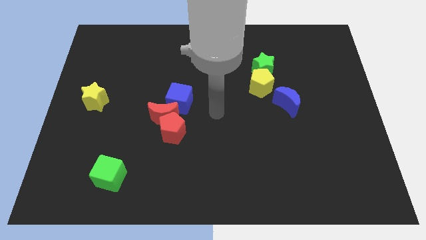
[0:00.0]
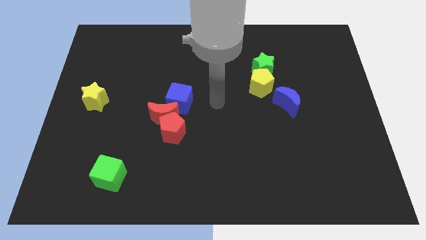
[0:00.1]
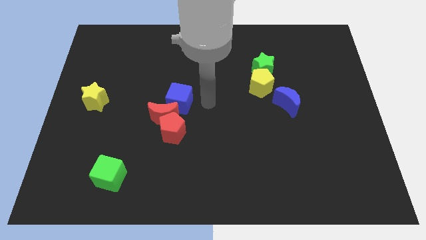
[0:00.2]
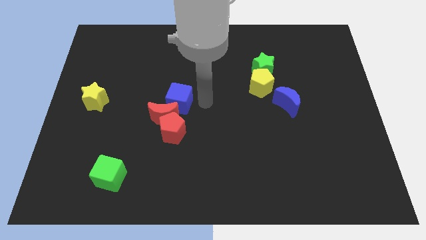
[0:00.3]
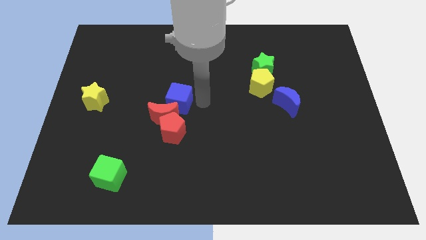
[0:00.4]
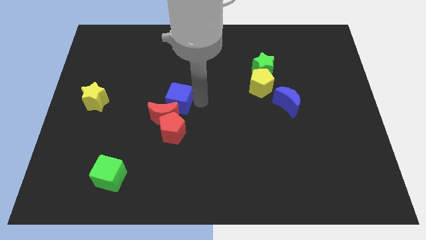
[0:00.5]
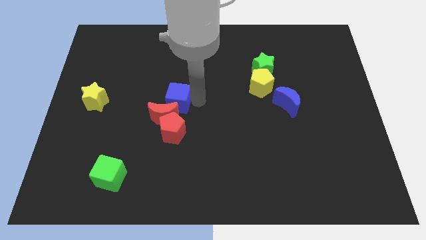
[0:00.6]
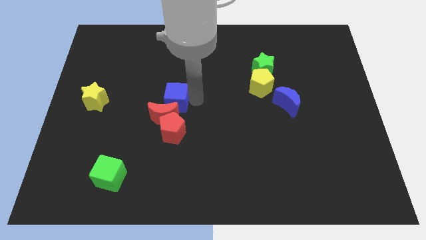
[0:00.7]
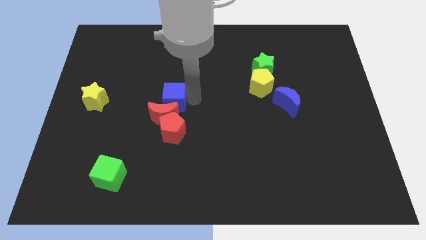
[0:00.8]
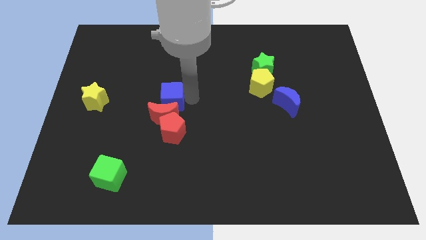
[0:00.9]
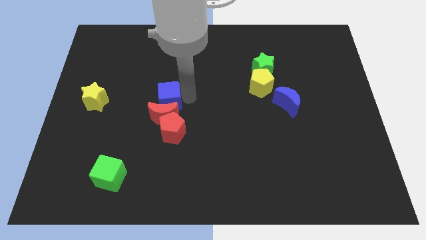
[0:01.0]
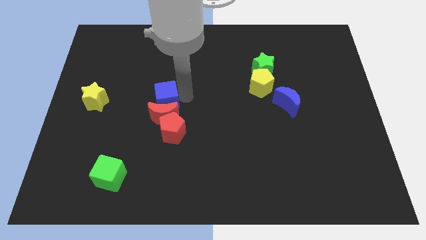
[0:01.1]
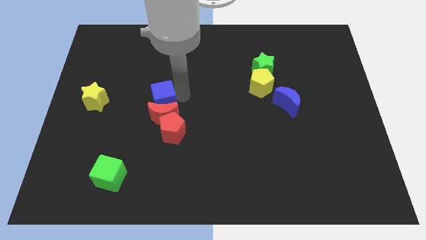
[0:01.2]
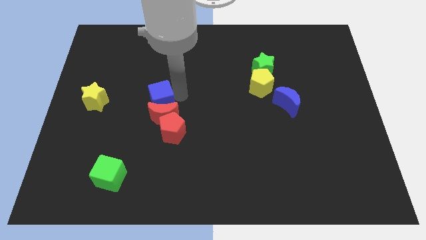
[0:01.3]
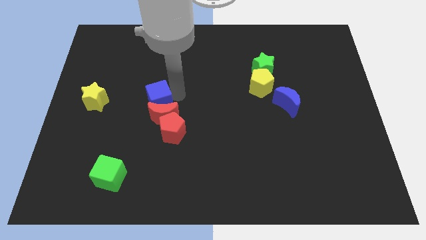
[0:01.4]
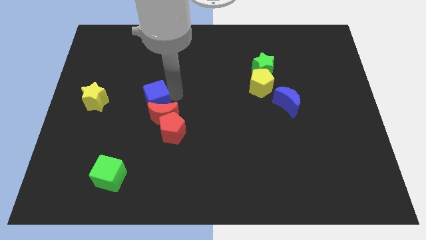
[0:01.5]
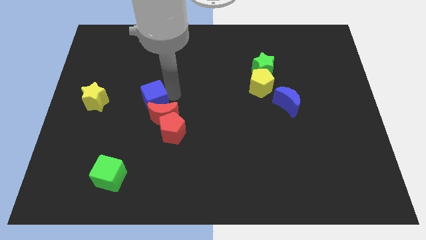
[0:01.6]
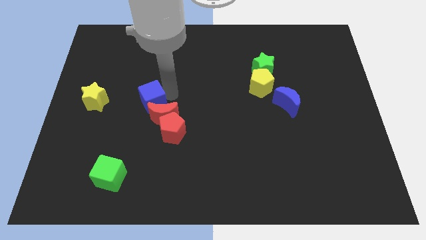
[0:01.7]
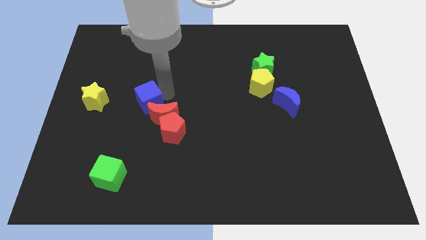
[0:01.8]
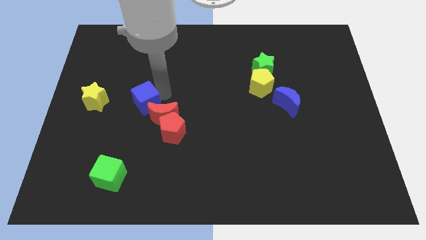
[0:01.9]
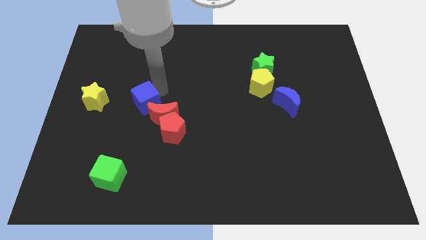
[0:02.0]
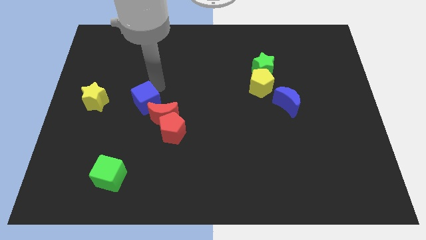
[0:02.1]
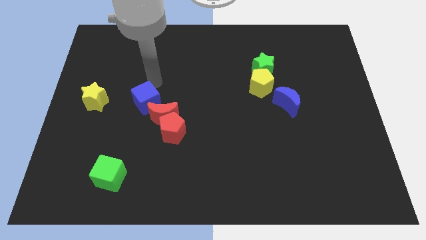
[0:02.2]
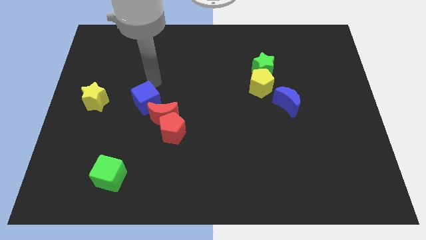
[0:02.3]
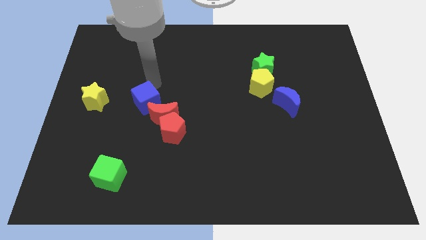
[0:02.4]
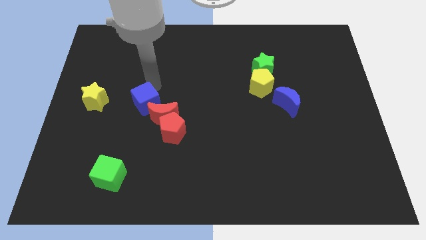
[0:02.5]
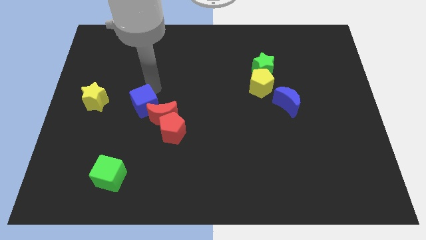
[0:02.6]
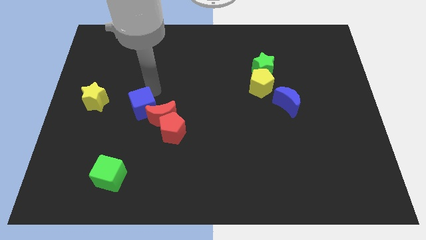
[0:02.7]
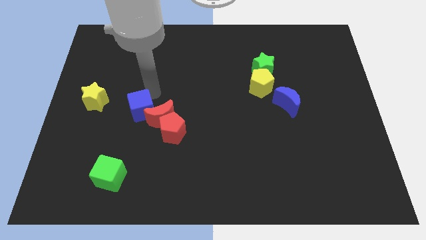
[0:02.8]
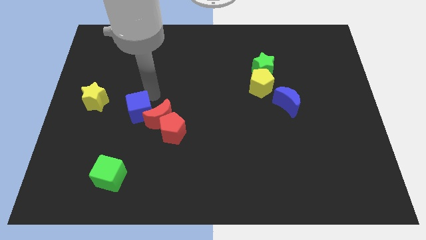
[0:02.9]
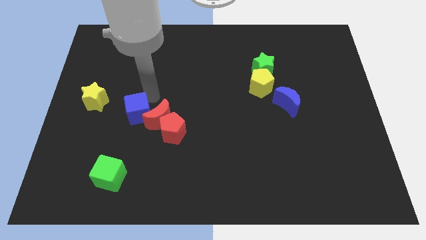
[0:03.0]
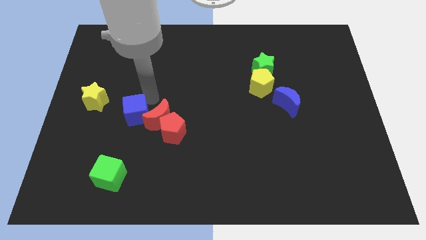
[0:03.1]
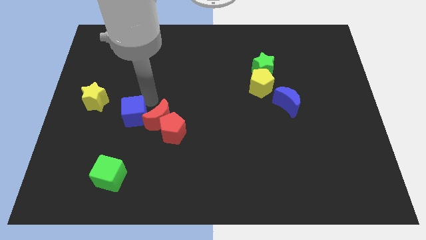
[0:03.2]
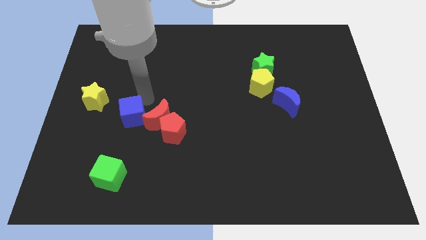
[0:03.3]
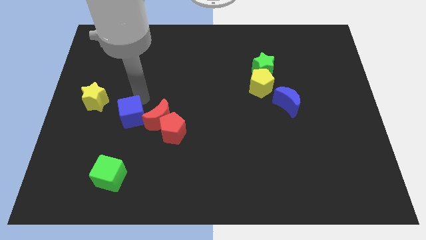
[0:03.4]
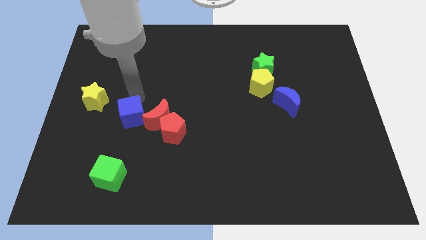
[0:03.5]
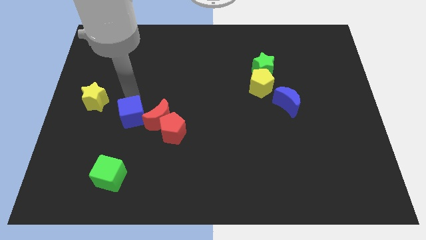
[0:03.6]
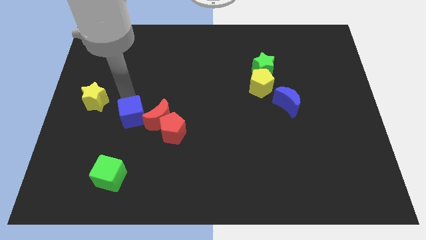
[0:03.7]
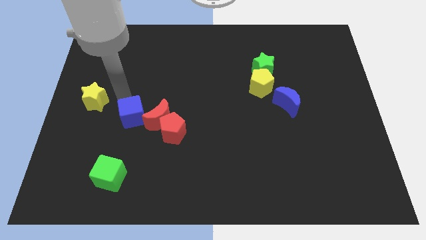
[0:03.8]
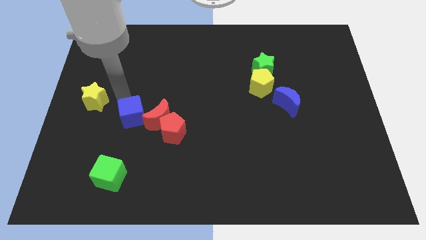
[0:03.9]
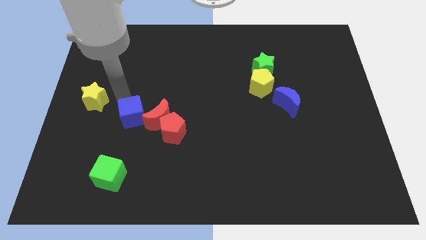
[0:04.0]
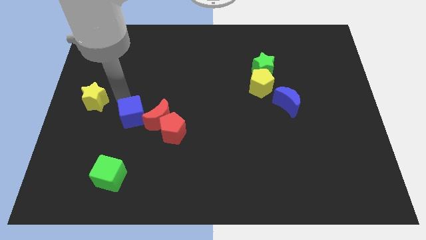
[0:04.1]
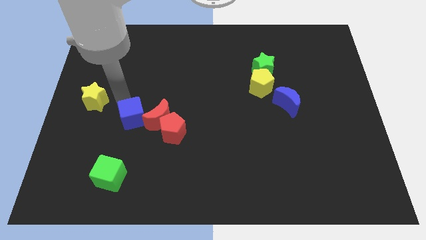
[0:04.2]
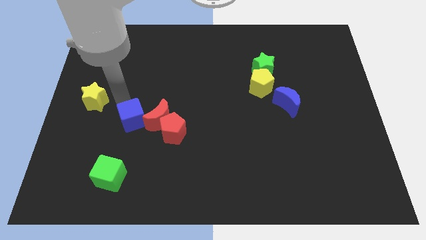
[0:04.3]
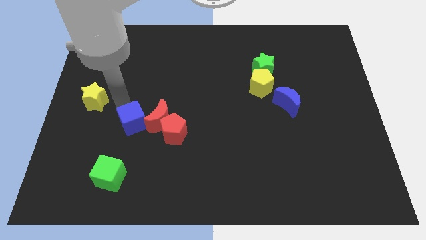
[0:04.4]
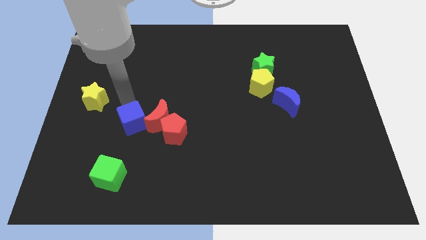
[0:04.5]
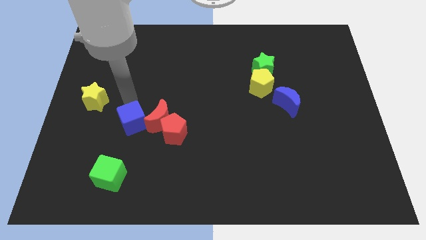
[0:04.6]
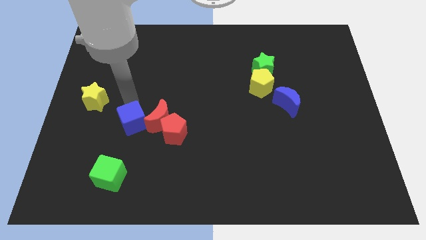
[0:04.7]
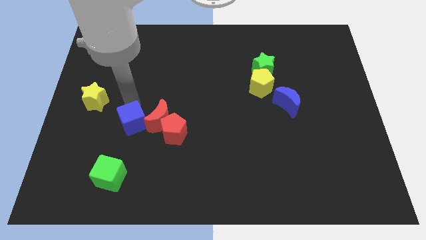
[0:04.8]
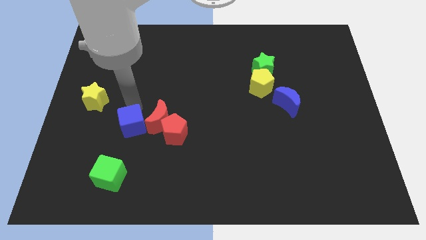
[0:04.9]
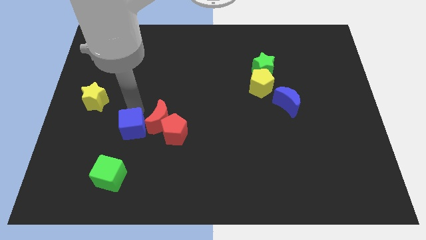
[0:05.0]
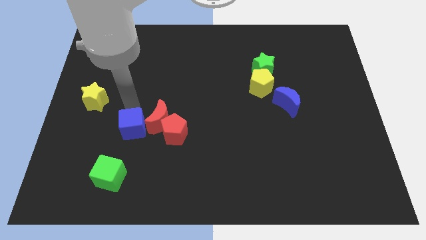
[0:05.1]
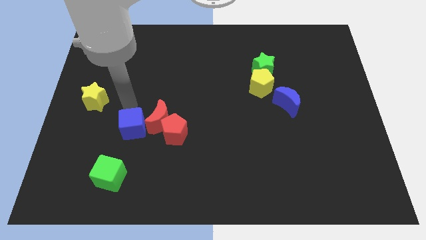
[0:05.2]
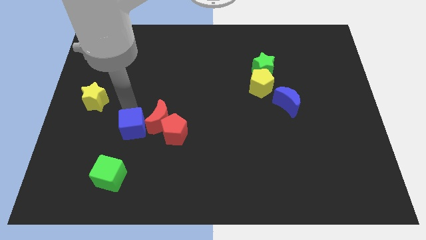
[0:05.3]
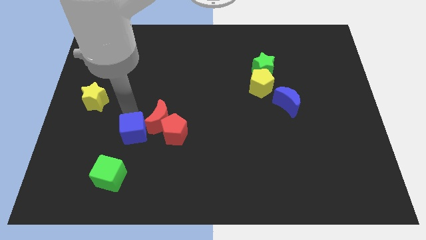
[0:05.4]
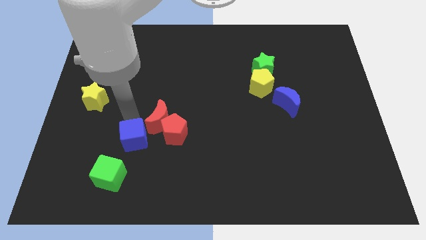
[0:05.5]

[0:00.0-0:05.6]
push the blue cube to the top right side of the green cube

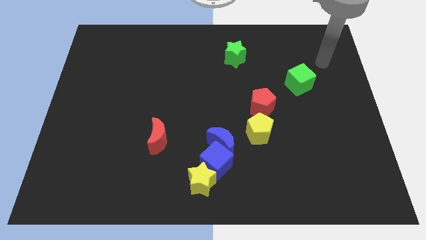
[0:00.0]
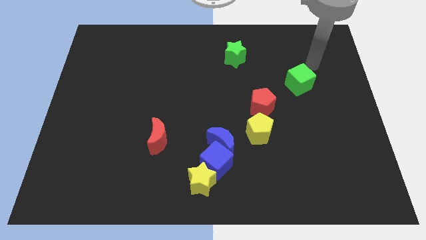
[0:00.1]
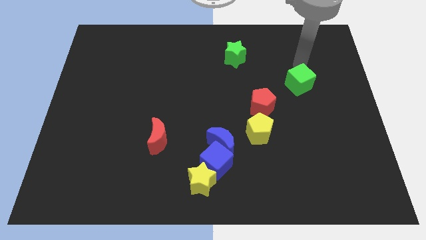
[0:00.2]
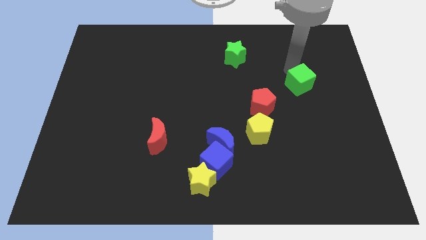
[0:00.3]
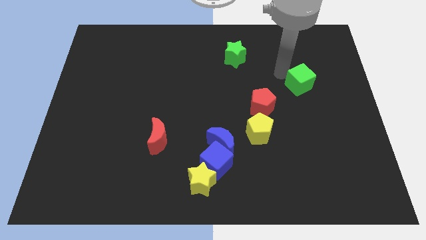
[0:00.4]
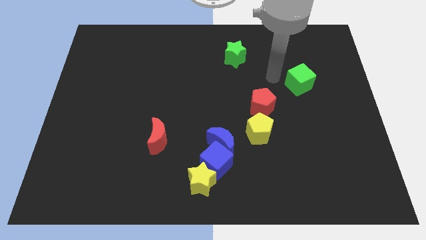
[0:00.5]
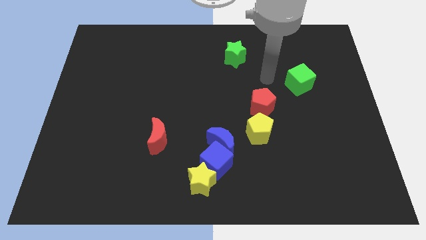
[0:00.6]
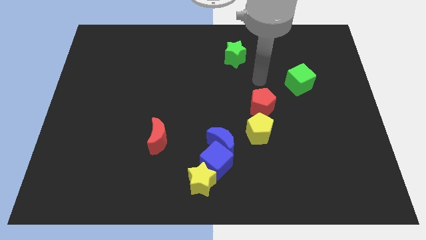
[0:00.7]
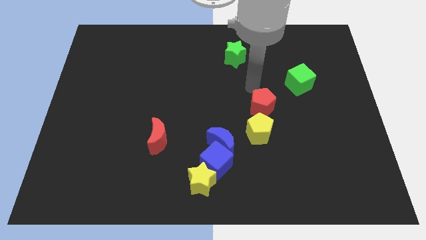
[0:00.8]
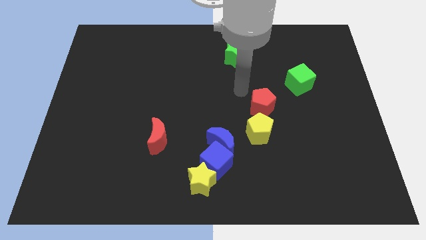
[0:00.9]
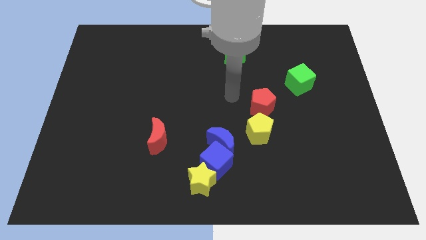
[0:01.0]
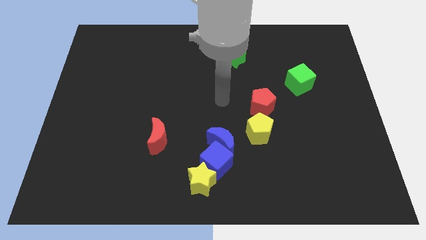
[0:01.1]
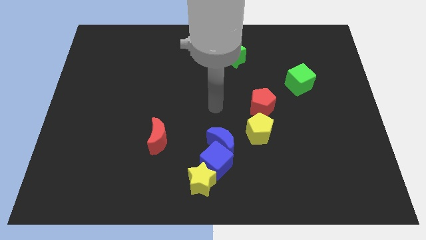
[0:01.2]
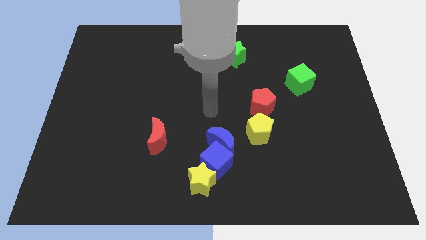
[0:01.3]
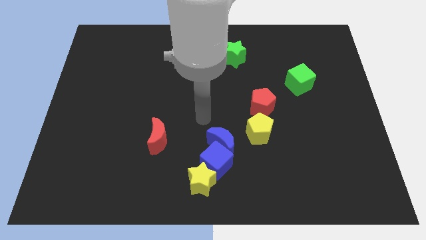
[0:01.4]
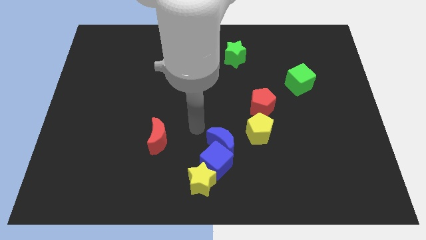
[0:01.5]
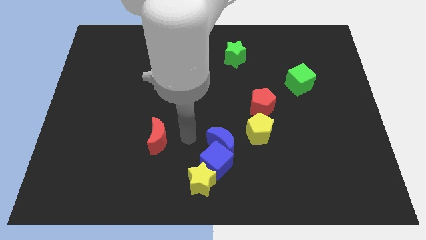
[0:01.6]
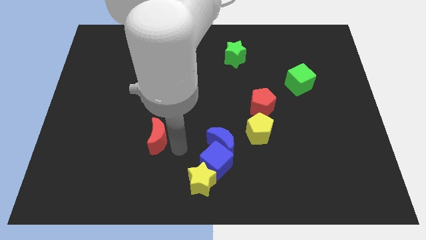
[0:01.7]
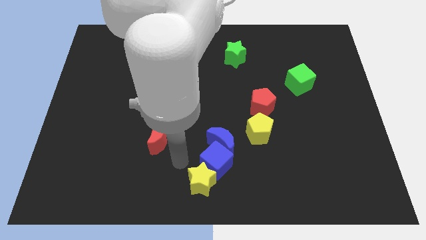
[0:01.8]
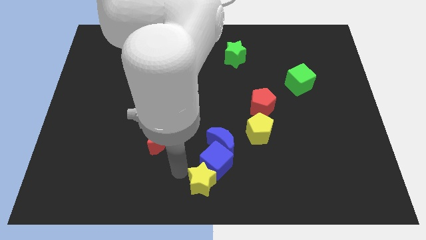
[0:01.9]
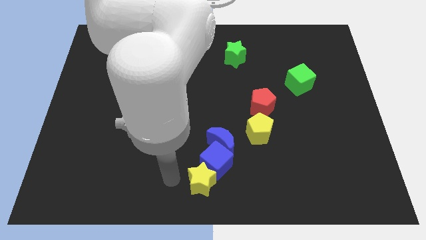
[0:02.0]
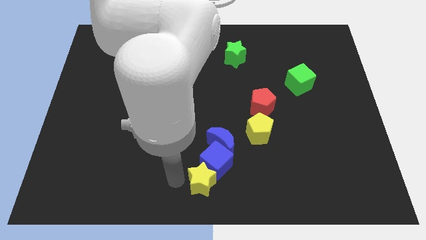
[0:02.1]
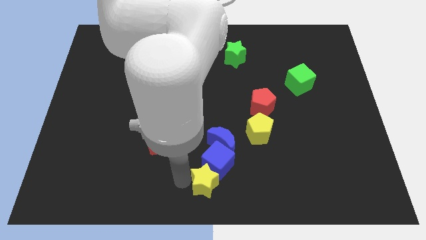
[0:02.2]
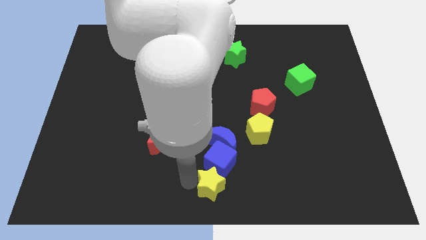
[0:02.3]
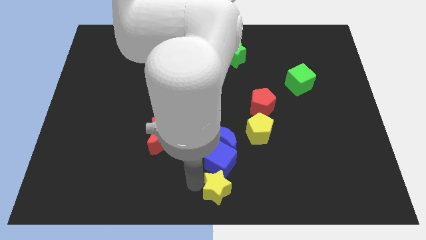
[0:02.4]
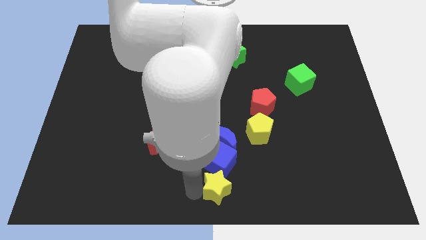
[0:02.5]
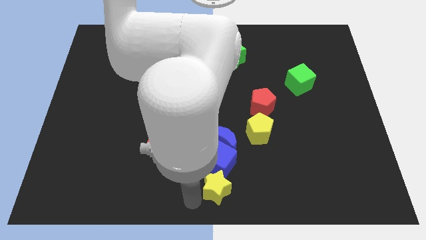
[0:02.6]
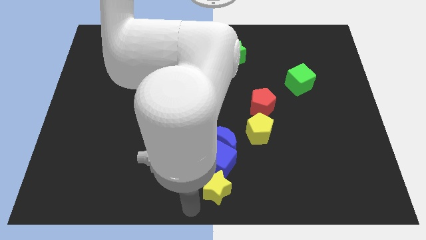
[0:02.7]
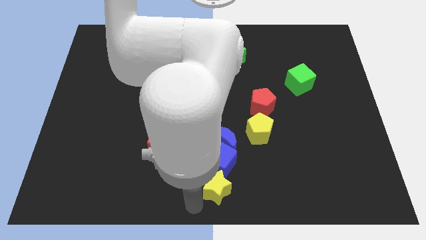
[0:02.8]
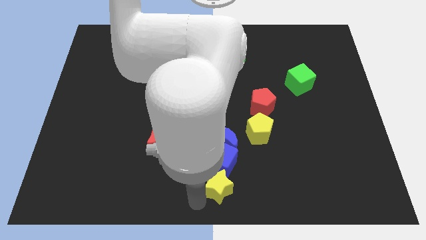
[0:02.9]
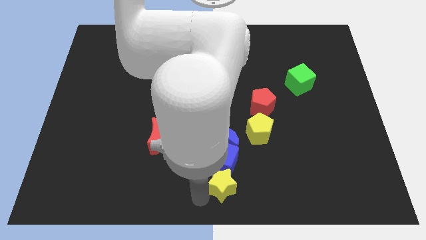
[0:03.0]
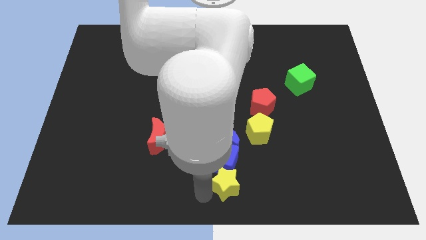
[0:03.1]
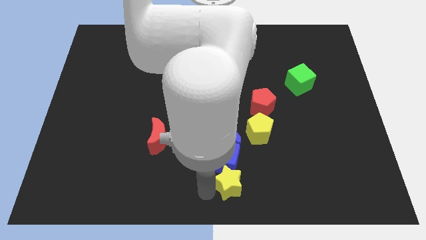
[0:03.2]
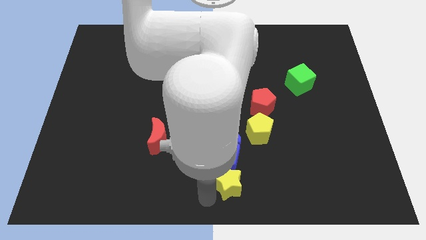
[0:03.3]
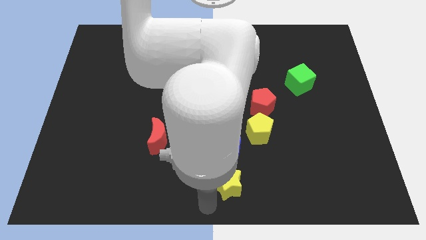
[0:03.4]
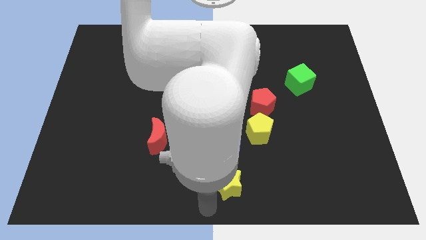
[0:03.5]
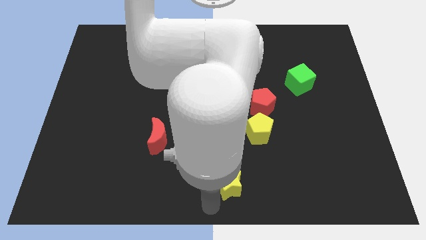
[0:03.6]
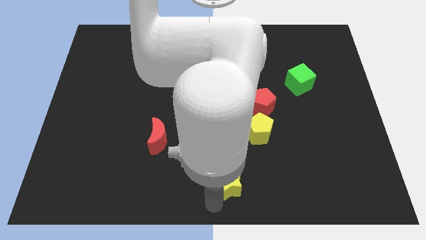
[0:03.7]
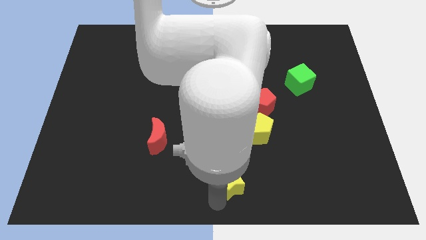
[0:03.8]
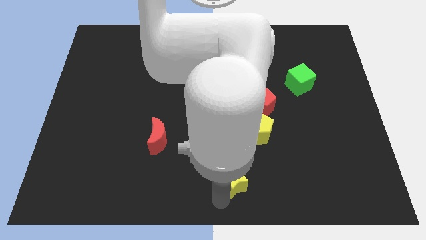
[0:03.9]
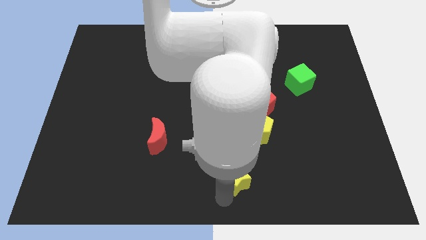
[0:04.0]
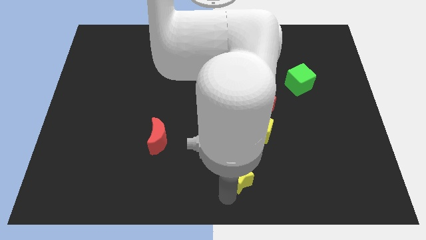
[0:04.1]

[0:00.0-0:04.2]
slide the yellow star diagonally down and to the right of the blue moon
